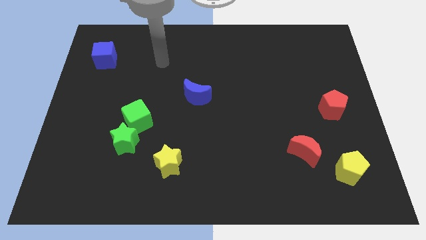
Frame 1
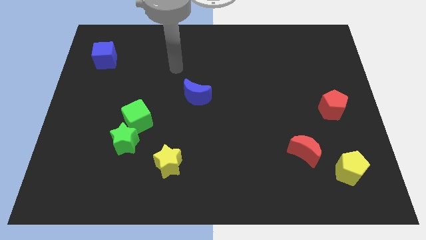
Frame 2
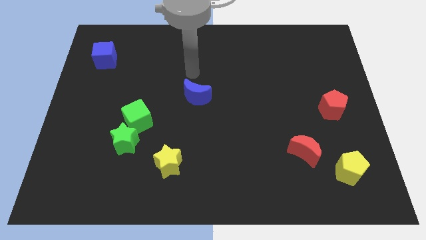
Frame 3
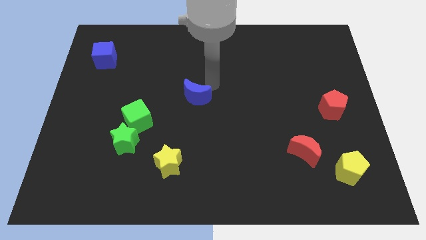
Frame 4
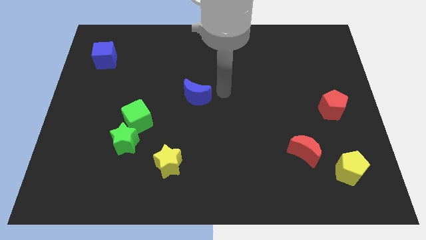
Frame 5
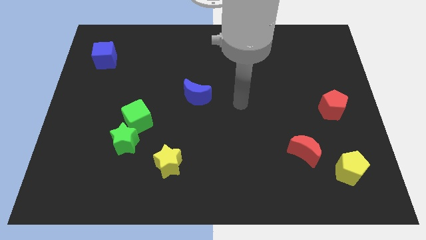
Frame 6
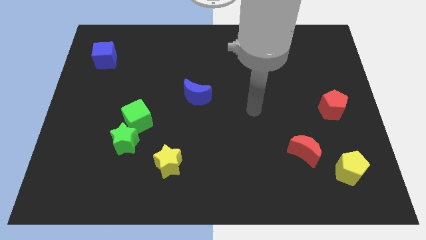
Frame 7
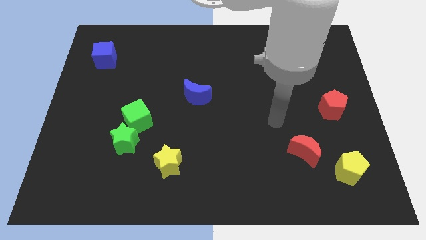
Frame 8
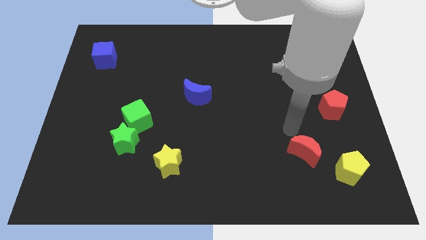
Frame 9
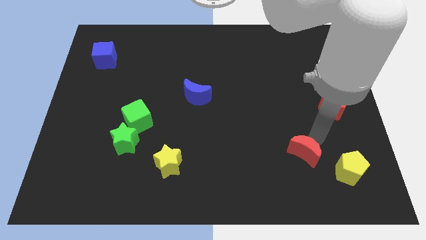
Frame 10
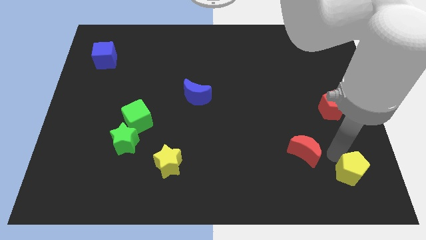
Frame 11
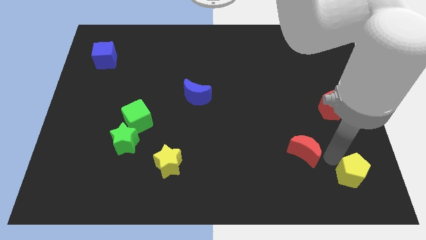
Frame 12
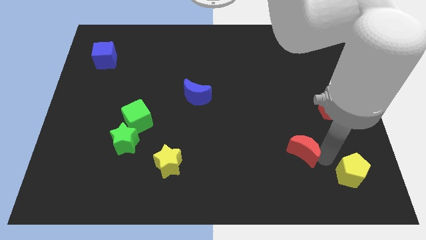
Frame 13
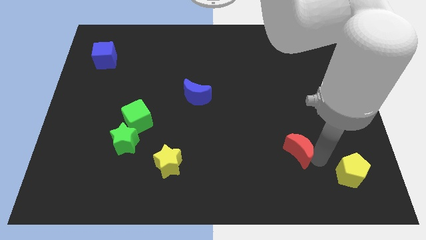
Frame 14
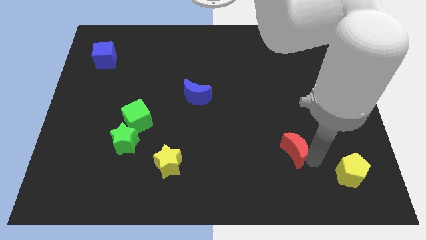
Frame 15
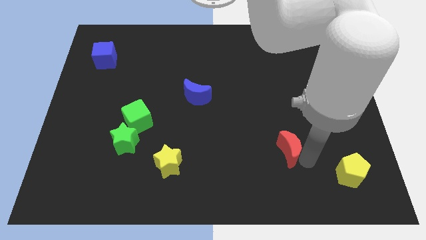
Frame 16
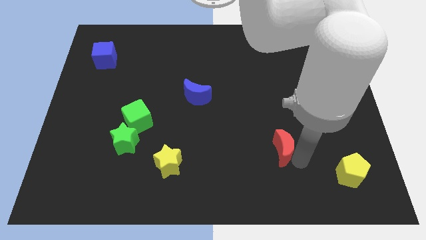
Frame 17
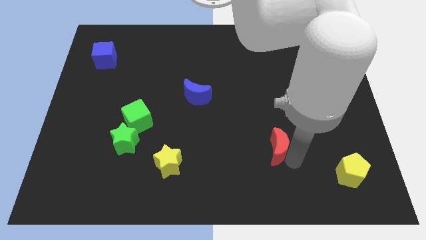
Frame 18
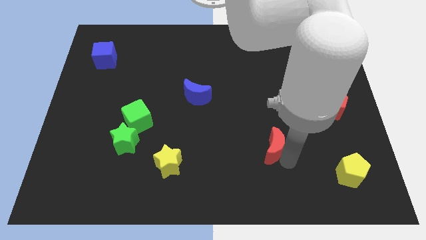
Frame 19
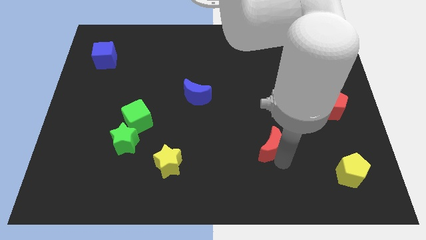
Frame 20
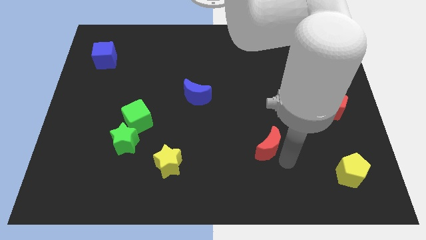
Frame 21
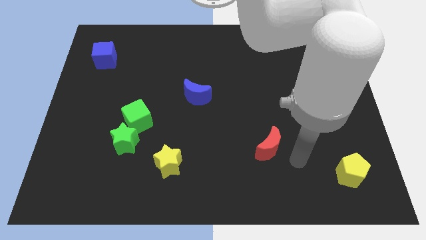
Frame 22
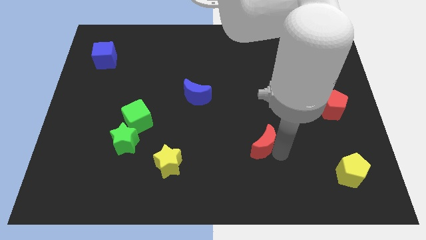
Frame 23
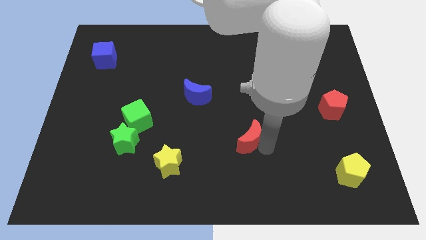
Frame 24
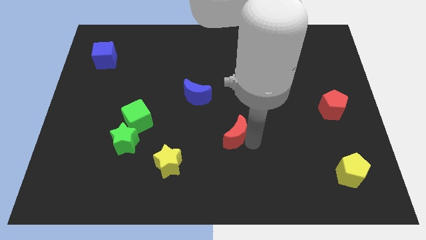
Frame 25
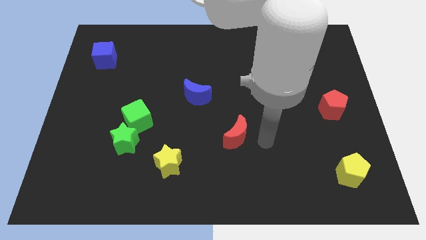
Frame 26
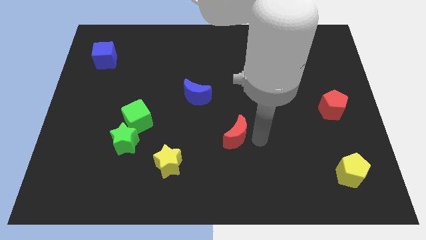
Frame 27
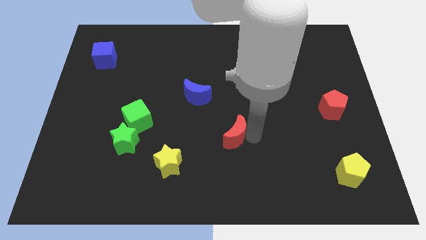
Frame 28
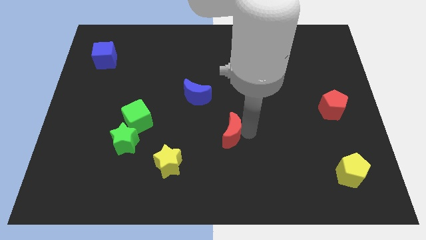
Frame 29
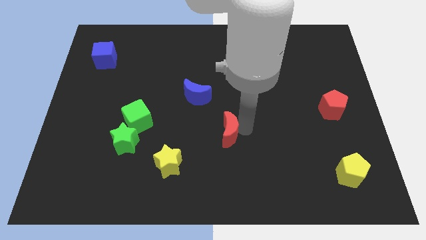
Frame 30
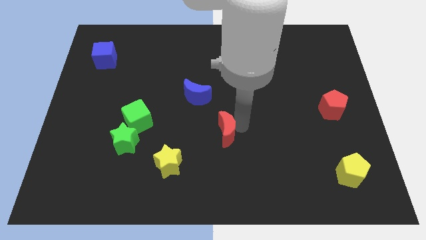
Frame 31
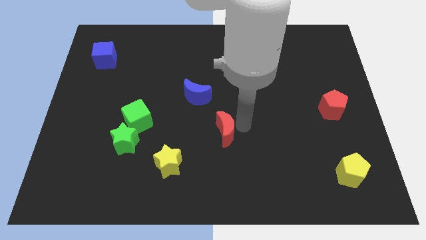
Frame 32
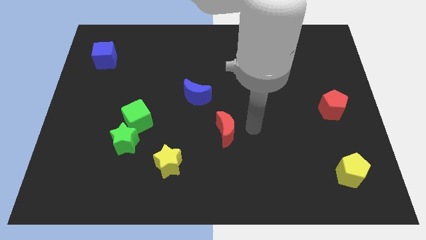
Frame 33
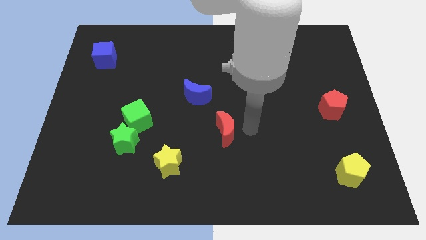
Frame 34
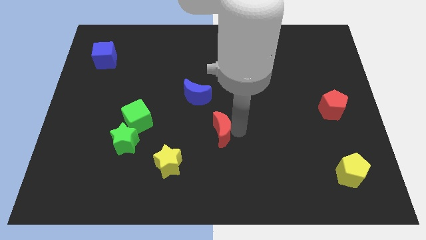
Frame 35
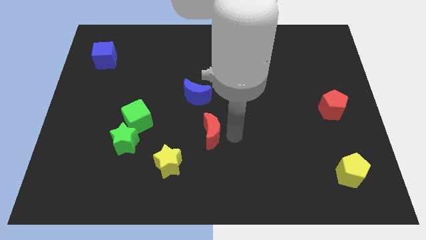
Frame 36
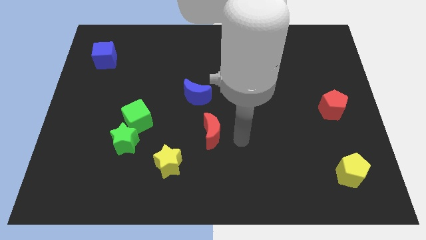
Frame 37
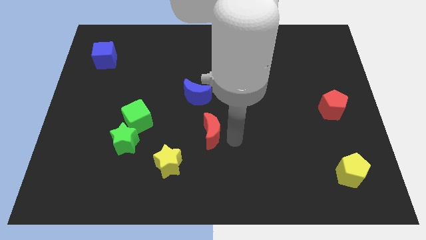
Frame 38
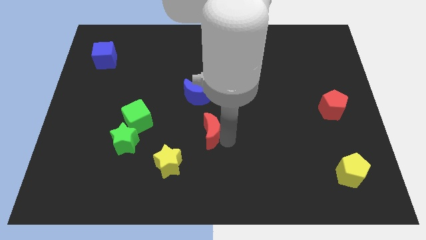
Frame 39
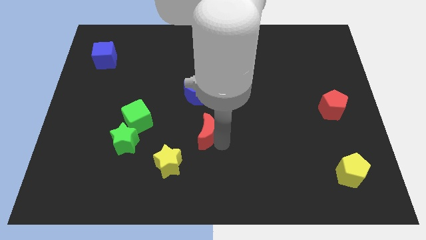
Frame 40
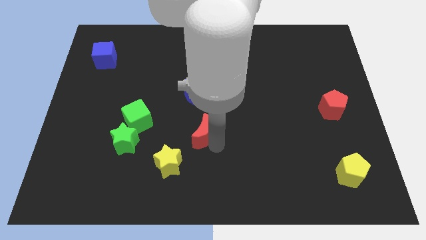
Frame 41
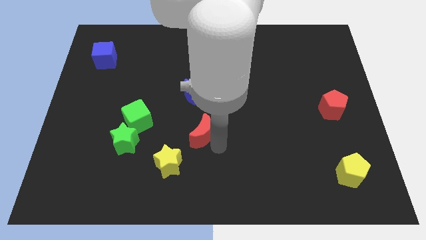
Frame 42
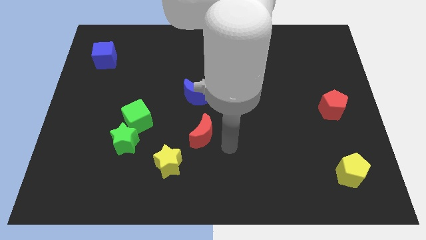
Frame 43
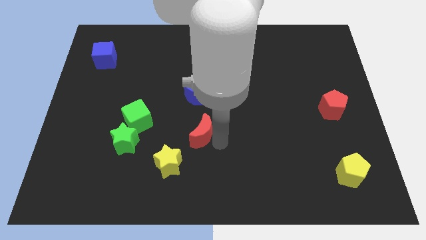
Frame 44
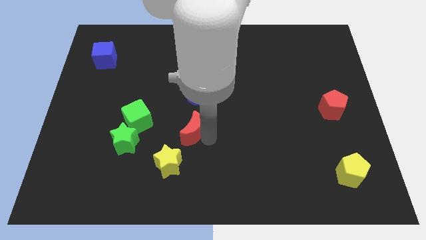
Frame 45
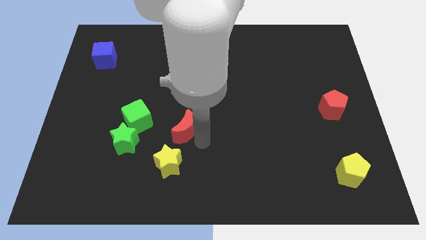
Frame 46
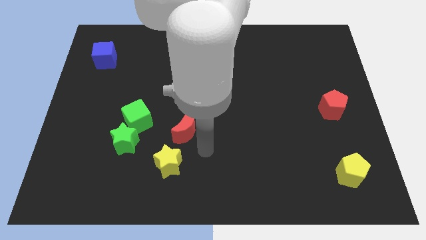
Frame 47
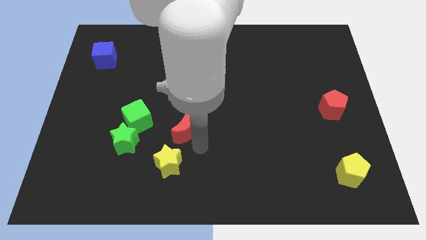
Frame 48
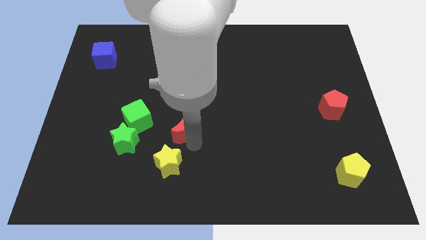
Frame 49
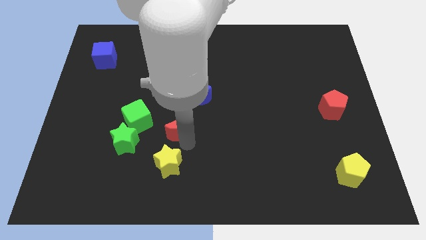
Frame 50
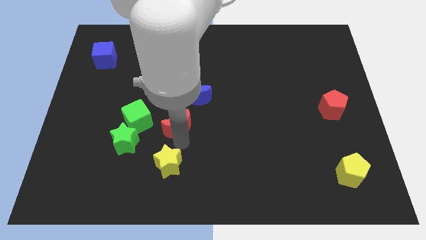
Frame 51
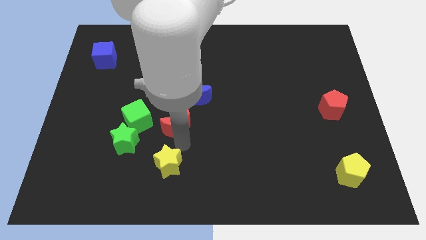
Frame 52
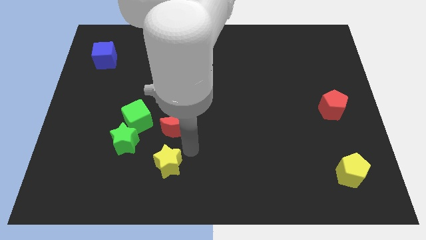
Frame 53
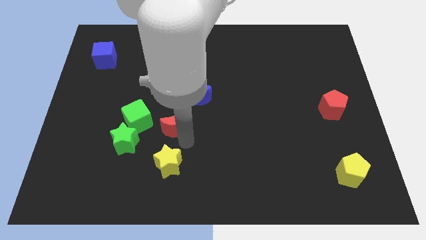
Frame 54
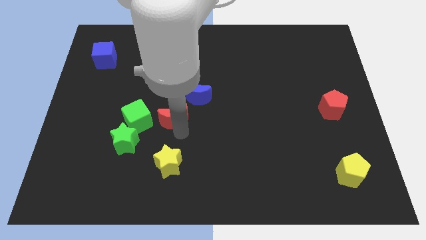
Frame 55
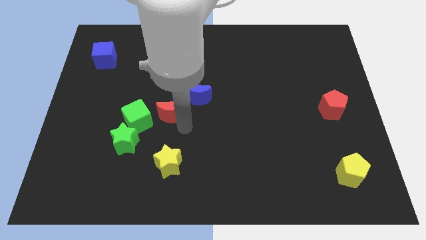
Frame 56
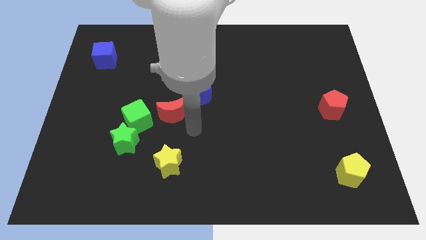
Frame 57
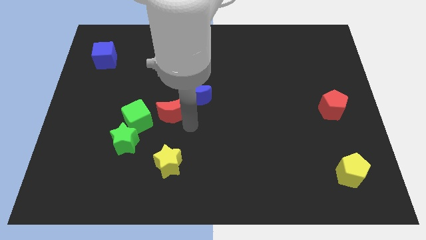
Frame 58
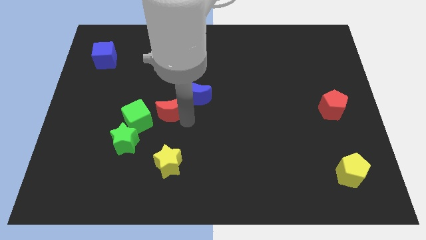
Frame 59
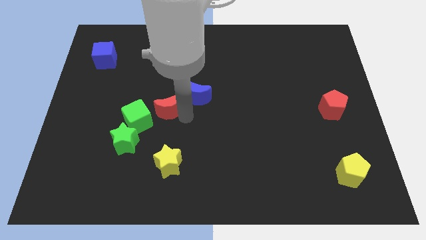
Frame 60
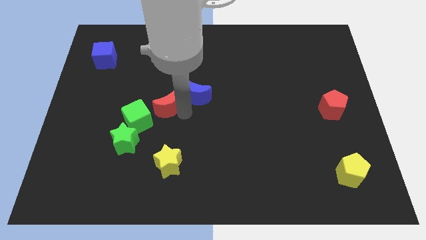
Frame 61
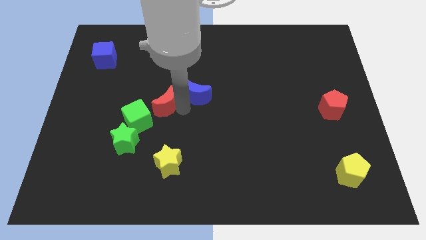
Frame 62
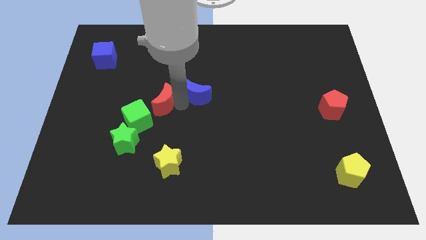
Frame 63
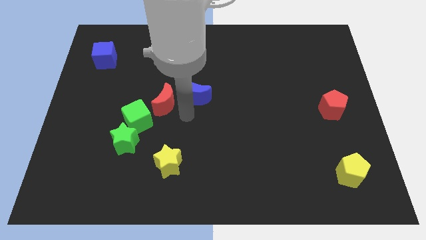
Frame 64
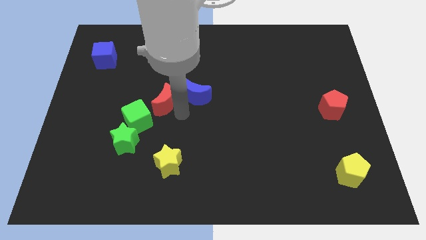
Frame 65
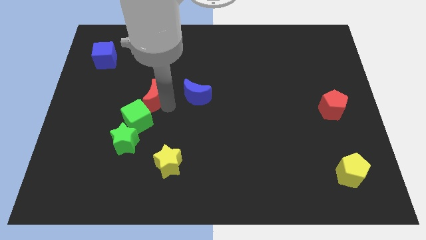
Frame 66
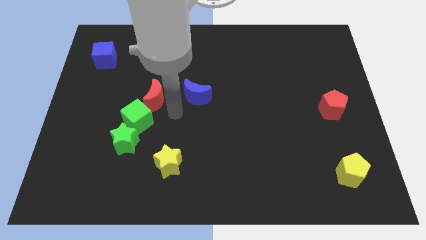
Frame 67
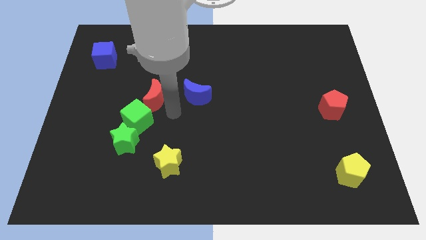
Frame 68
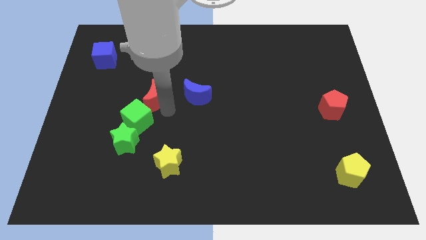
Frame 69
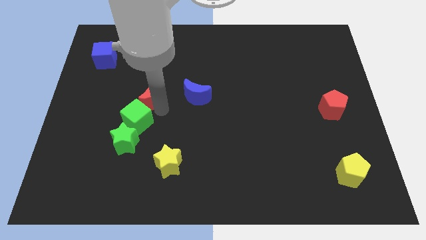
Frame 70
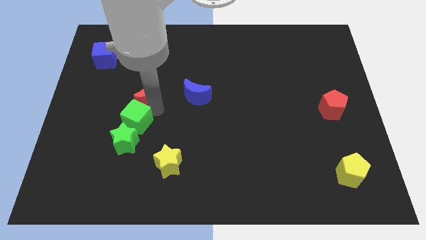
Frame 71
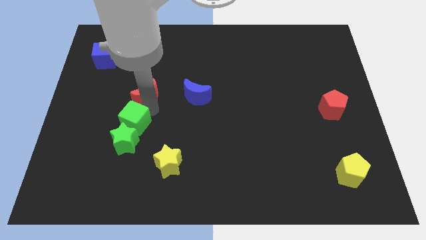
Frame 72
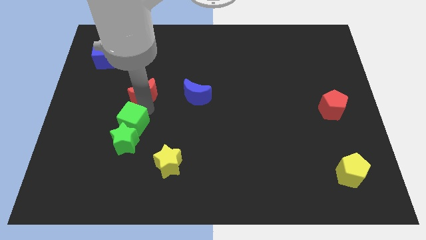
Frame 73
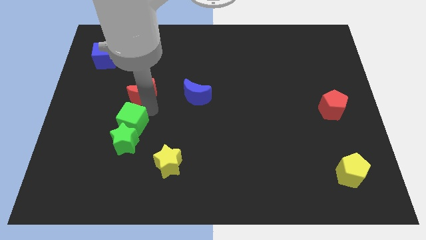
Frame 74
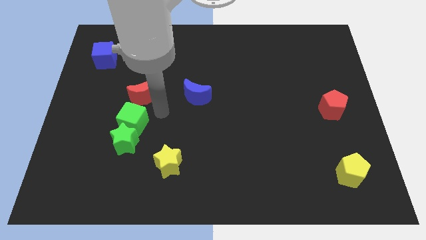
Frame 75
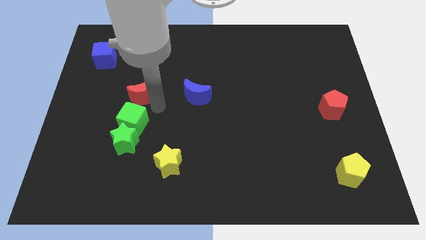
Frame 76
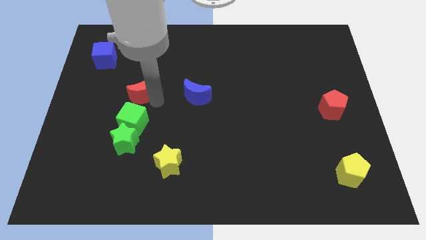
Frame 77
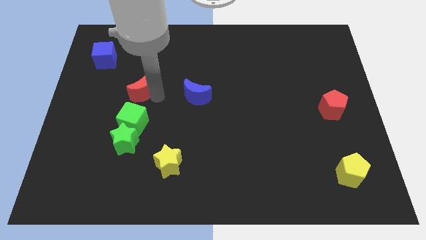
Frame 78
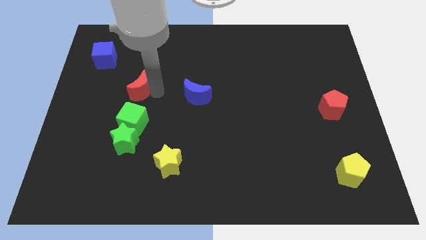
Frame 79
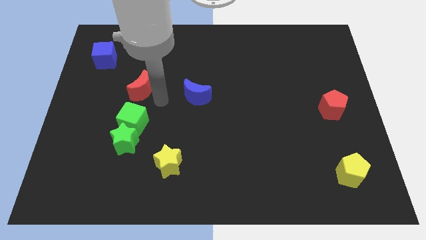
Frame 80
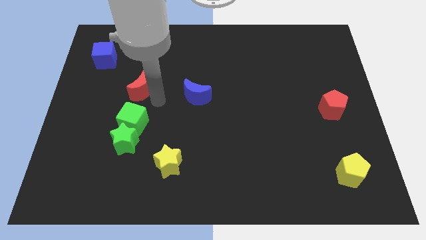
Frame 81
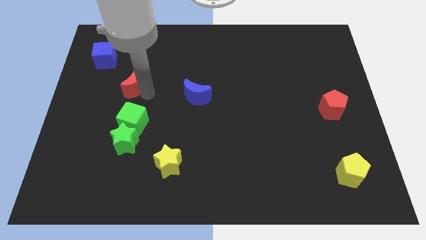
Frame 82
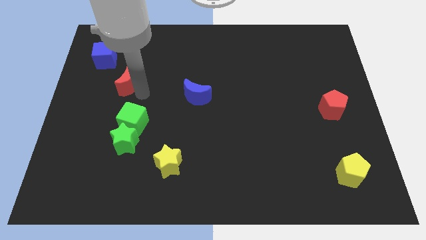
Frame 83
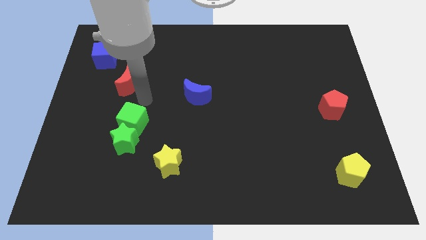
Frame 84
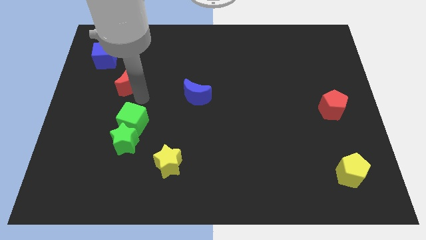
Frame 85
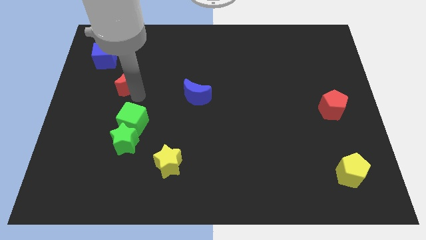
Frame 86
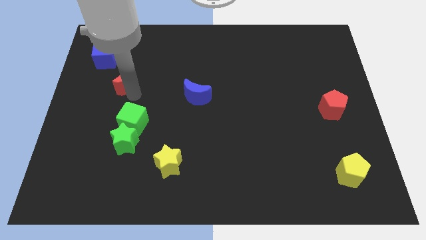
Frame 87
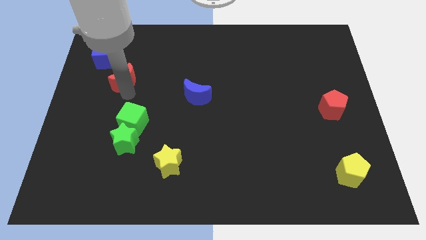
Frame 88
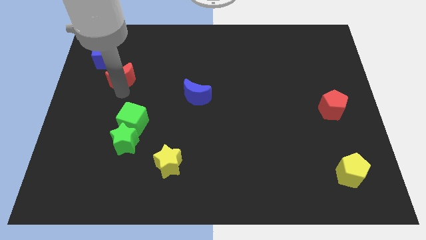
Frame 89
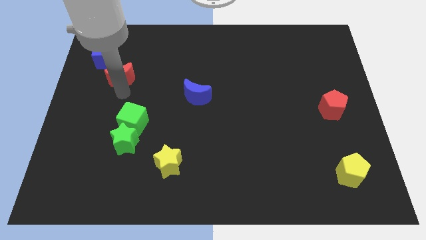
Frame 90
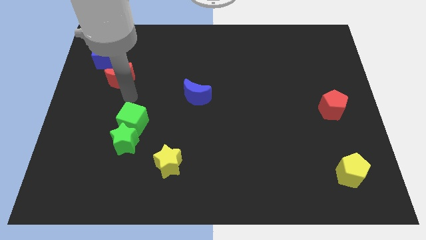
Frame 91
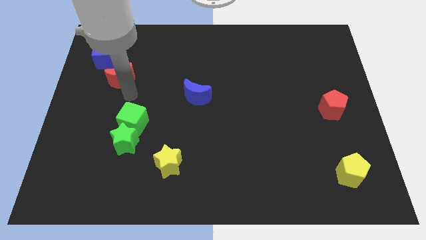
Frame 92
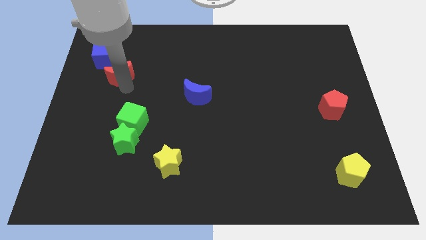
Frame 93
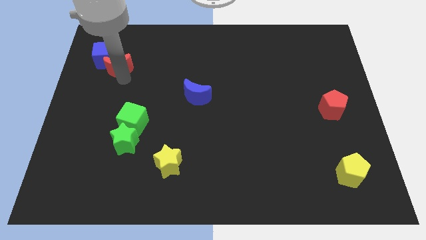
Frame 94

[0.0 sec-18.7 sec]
slide the red moon next to the blue cube
